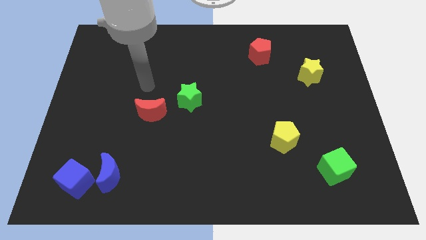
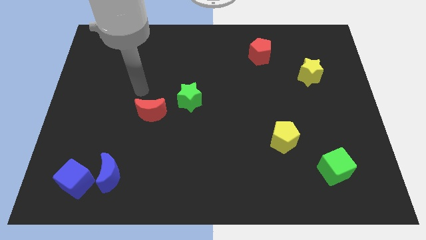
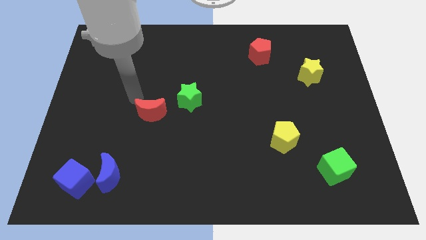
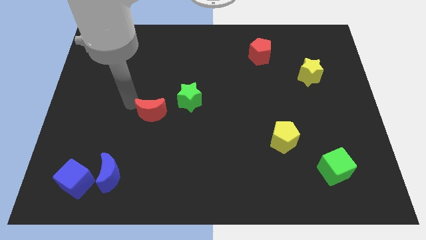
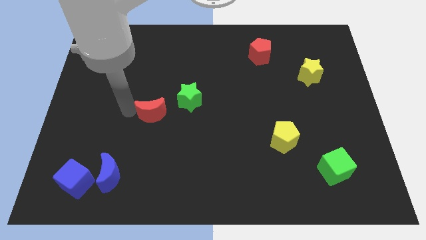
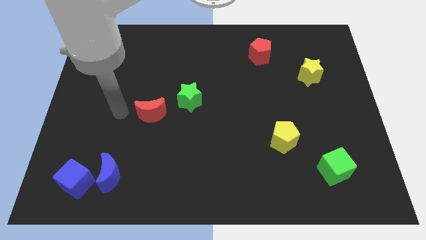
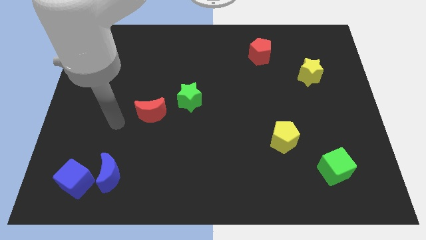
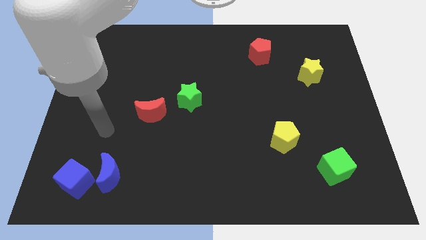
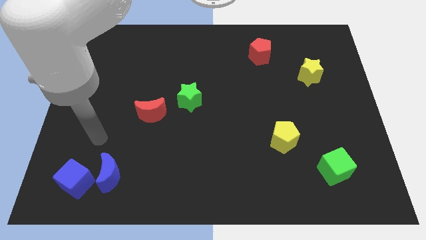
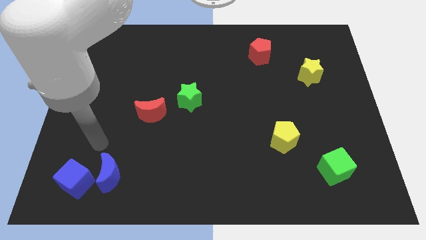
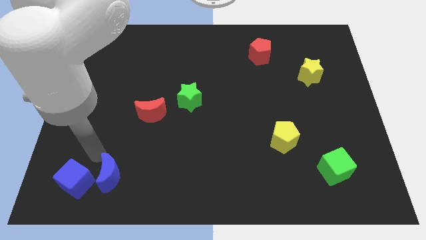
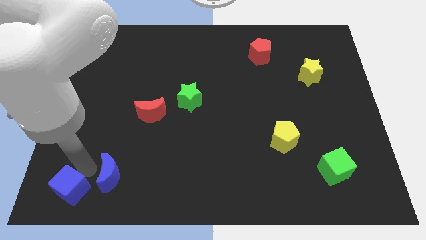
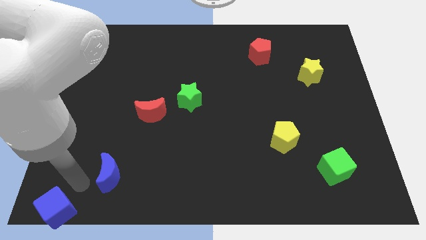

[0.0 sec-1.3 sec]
pull the blue moon apart from the blue cube

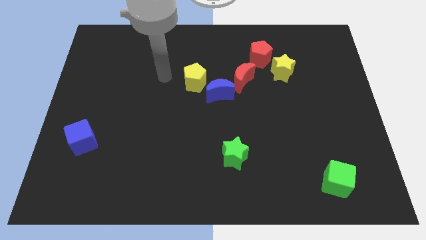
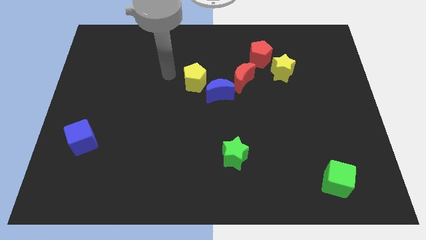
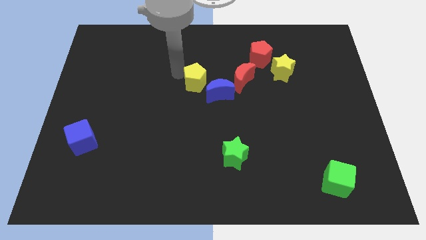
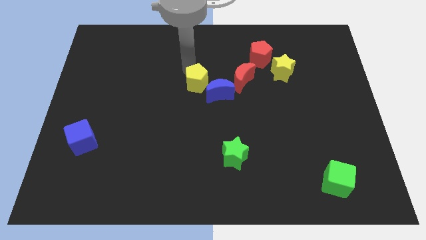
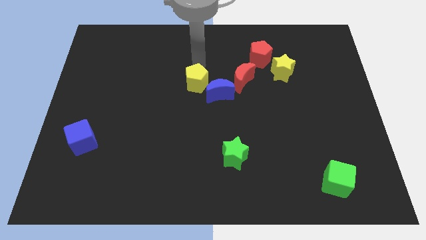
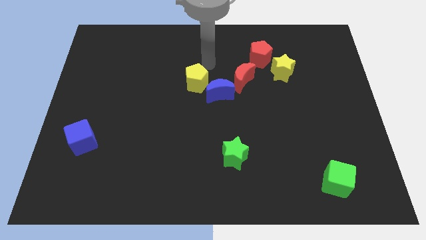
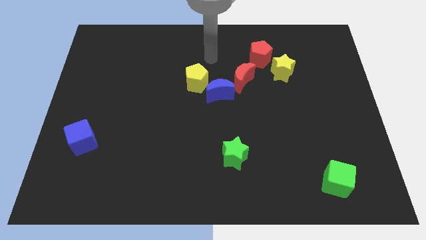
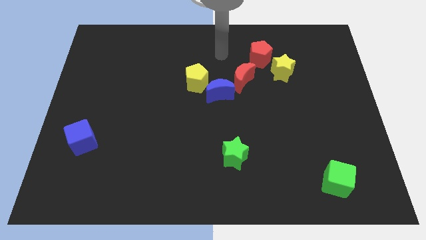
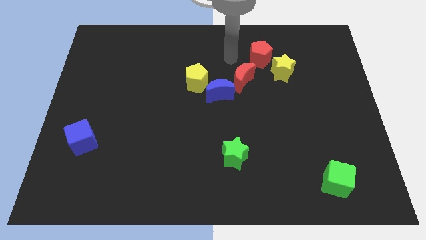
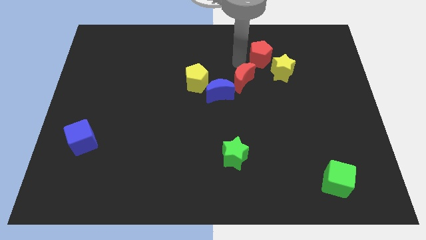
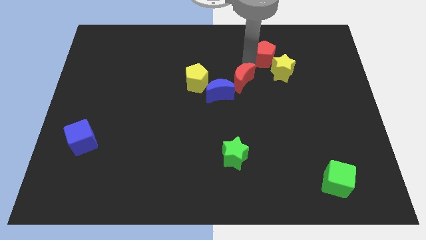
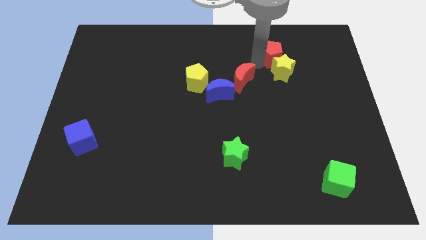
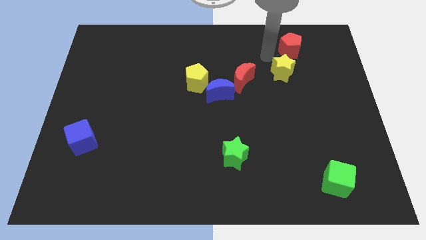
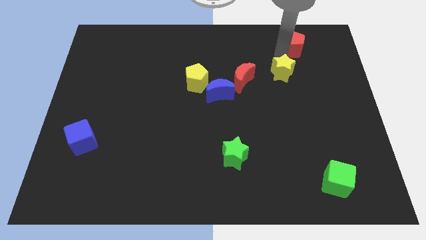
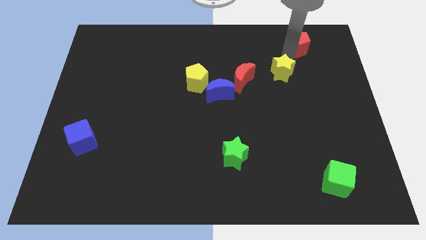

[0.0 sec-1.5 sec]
move the yellow star away from the red pentagon

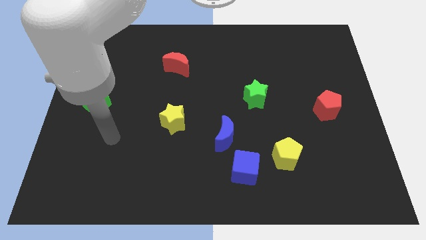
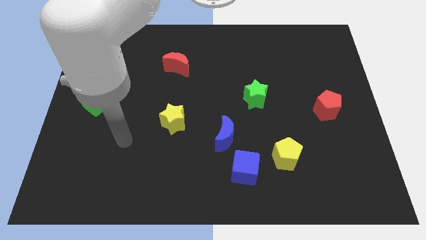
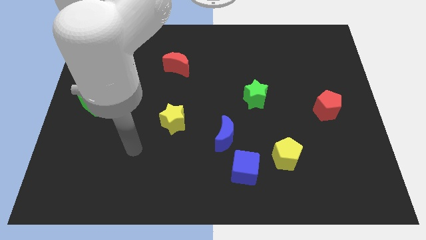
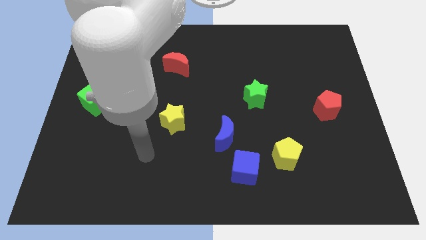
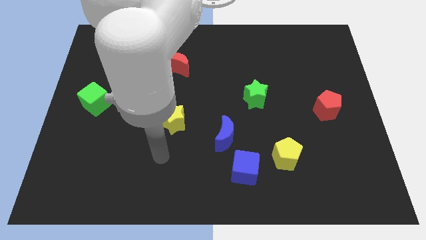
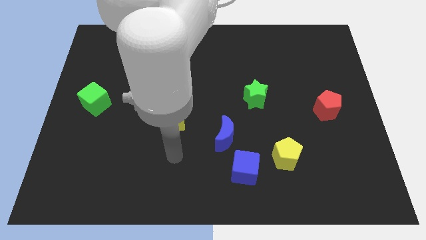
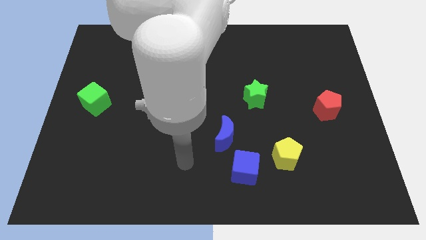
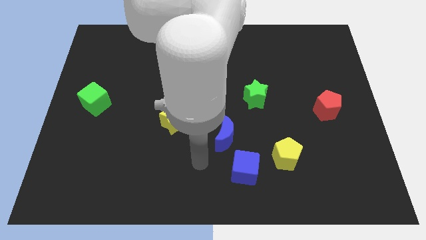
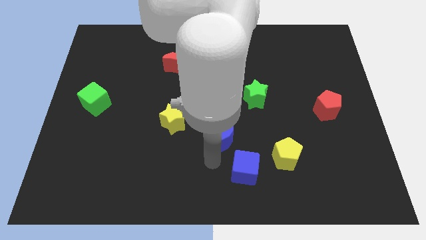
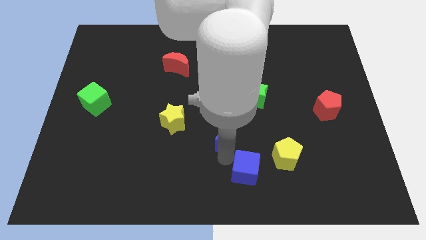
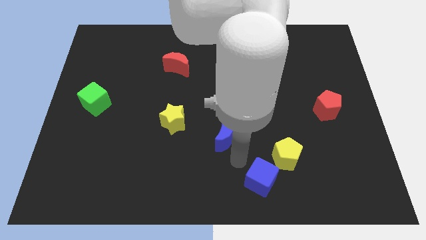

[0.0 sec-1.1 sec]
separate the blue moon from the blue cube

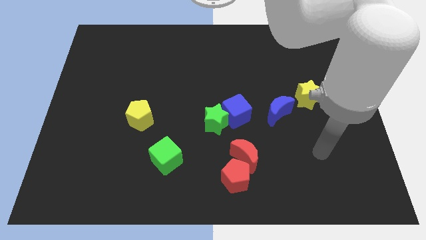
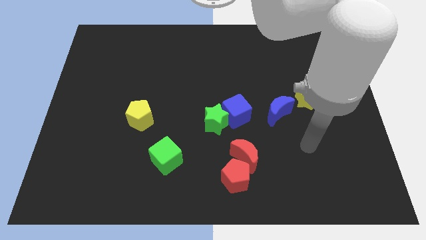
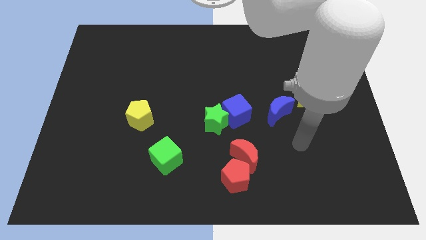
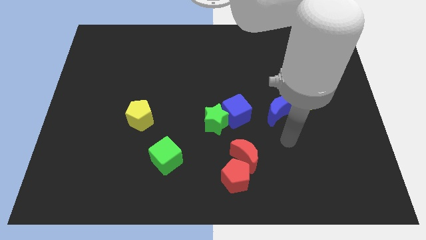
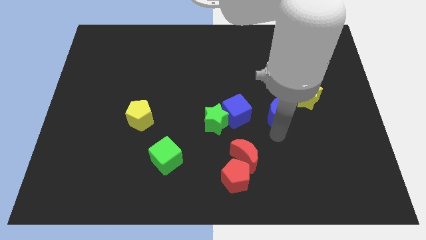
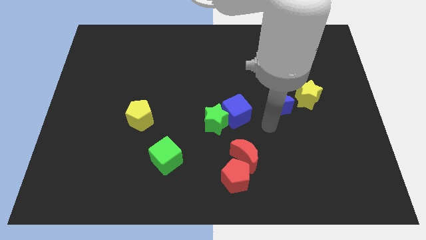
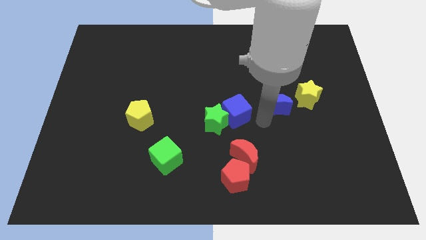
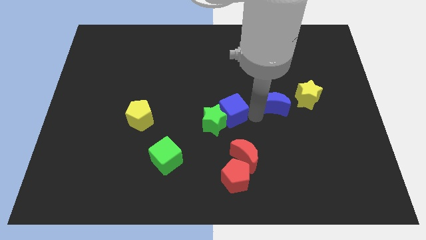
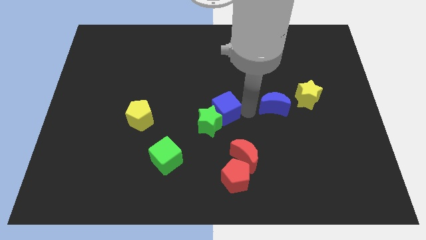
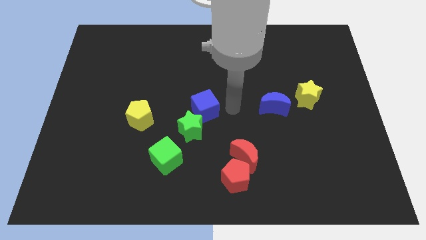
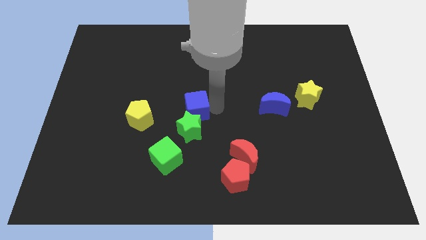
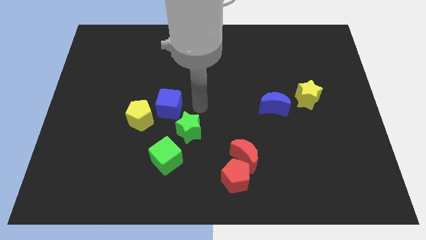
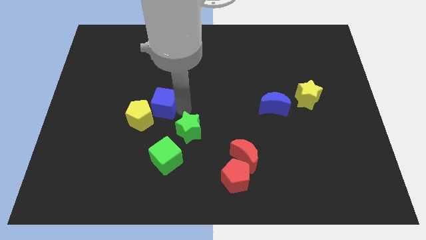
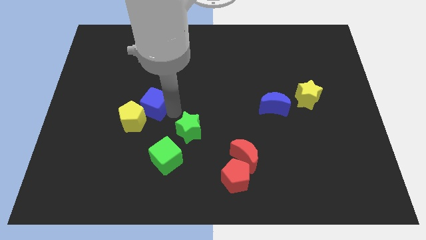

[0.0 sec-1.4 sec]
move the green star away from the blue cube

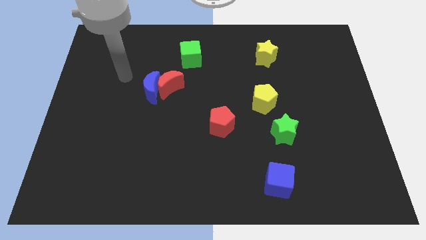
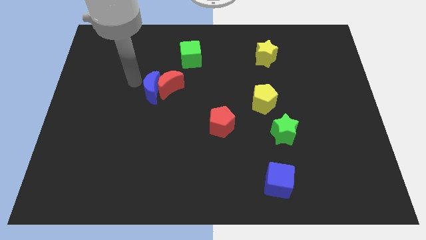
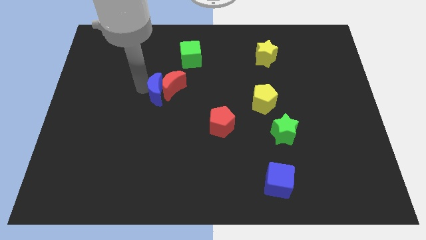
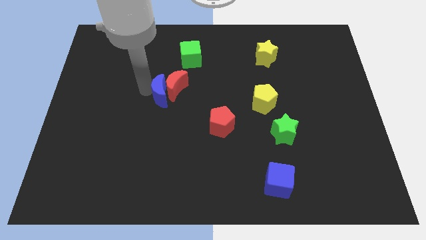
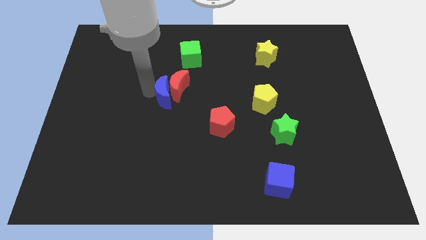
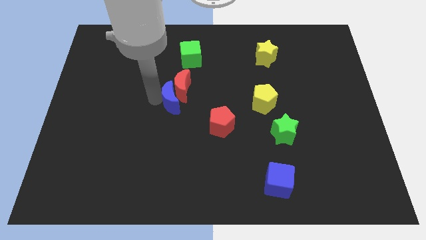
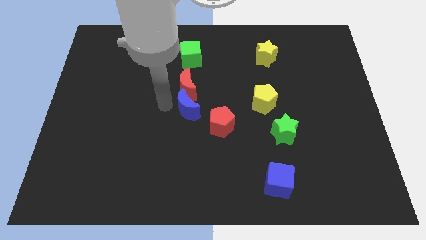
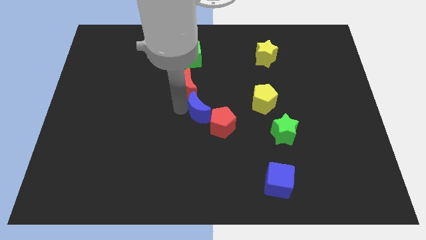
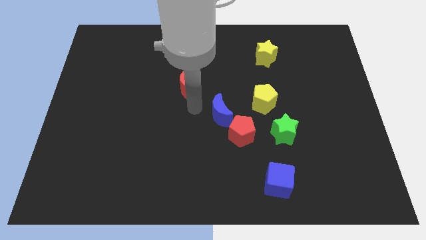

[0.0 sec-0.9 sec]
move the red moon away from the blue moon

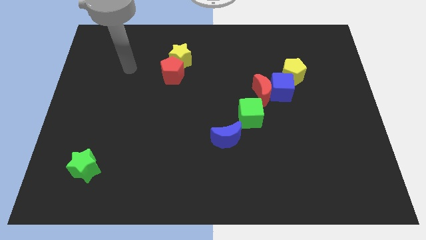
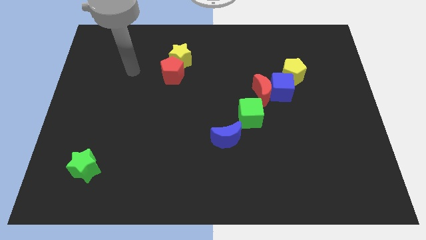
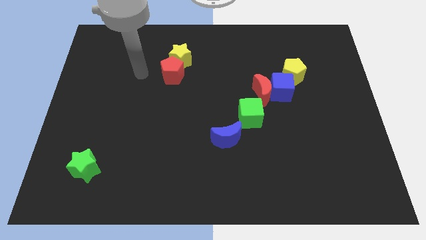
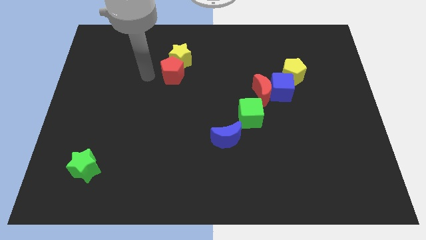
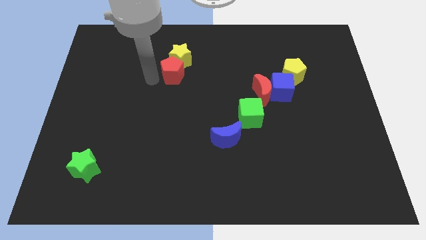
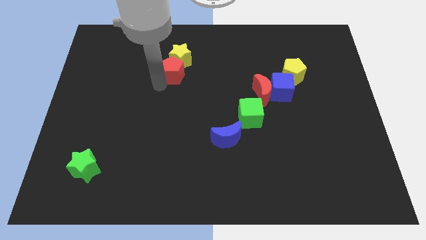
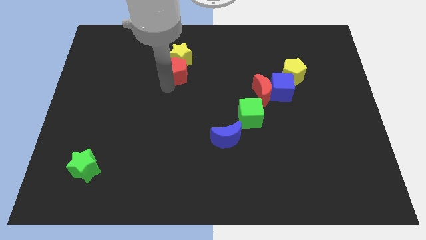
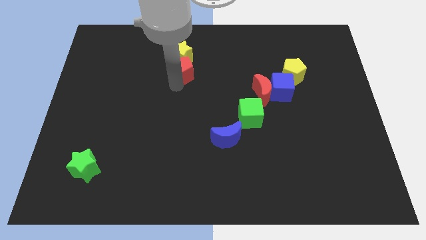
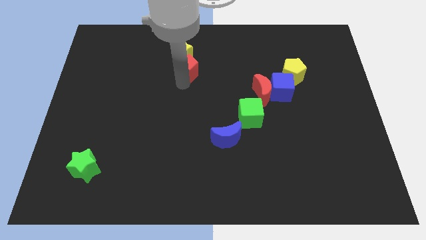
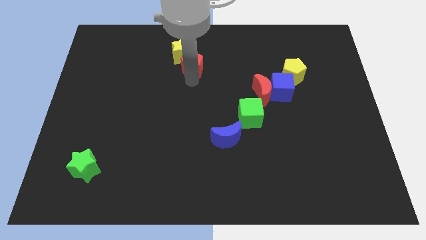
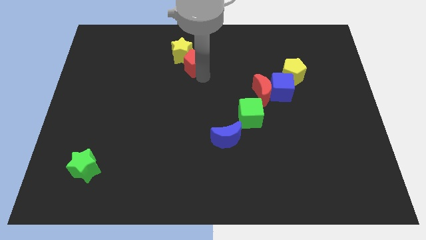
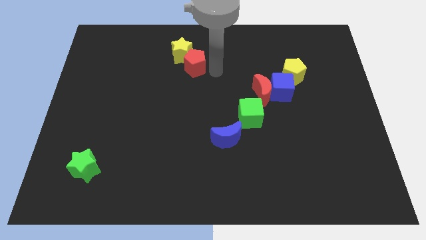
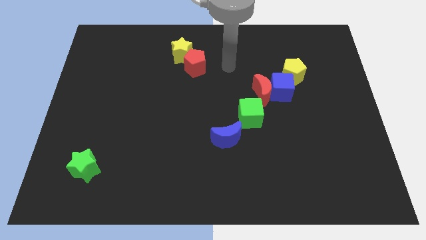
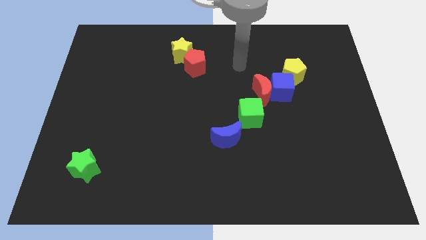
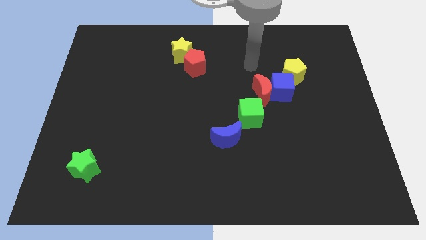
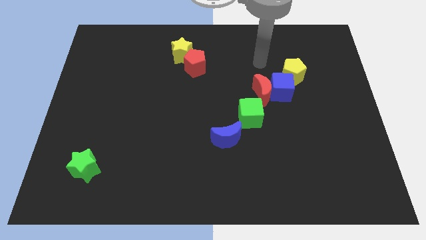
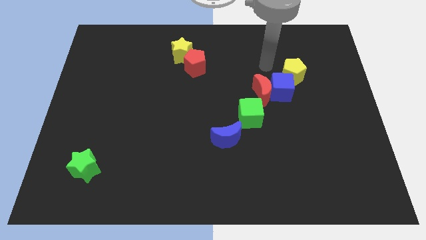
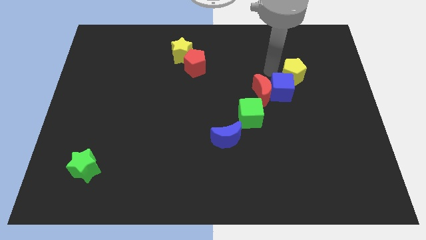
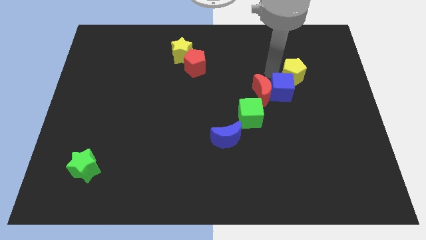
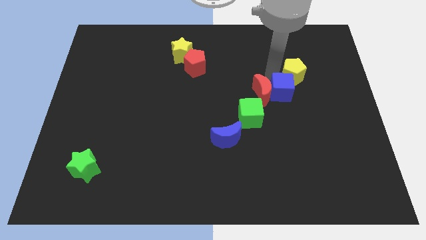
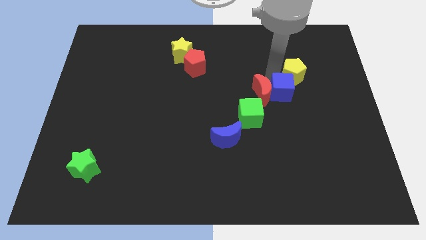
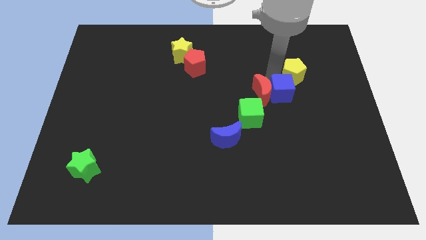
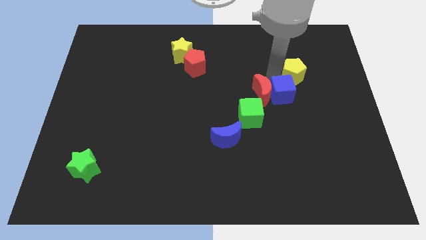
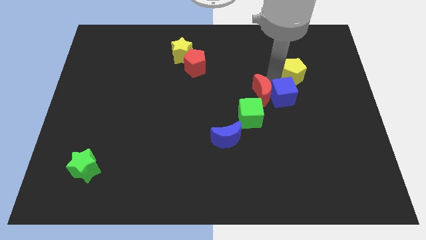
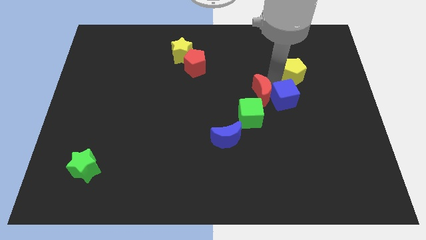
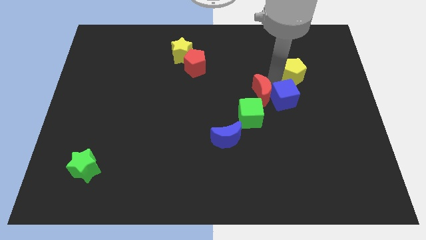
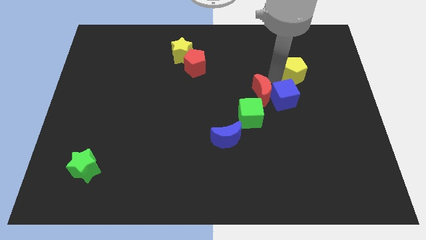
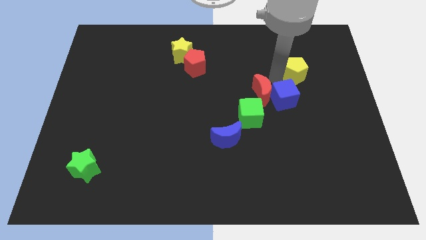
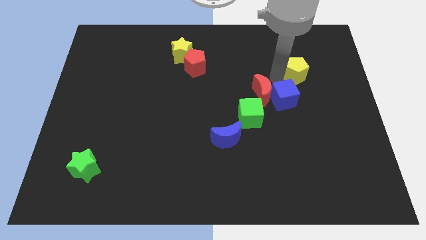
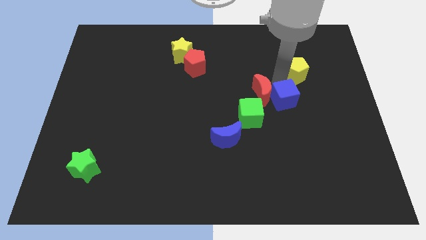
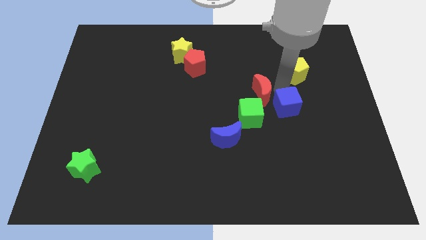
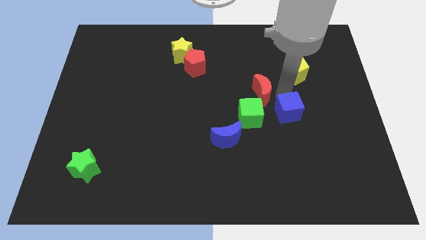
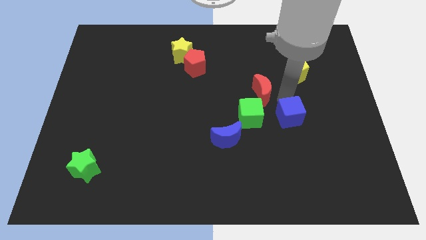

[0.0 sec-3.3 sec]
separate the blue cube from the red moon and yellow pentagon
